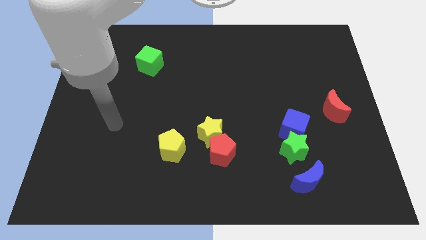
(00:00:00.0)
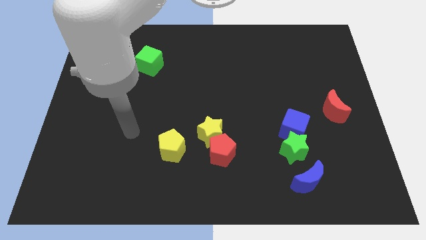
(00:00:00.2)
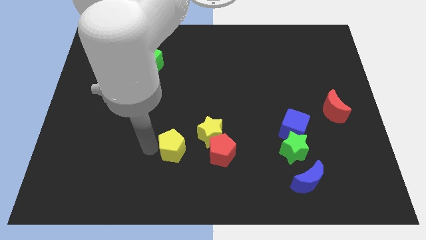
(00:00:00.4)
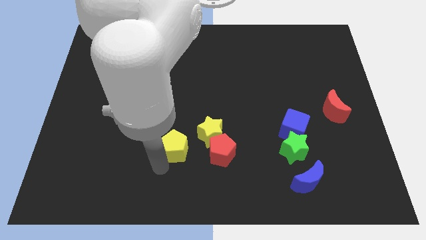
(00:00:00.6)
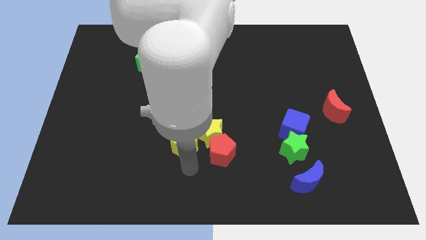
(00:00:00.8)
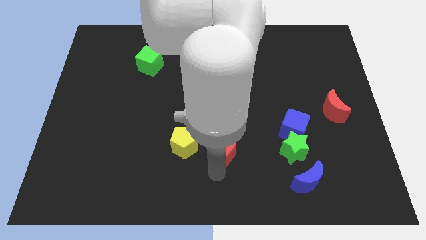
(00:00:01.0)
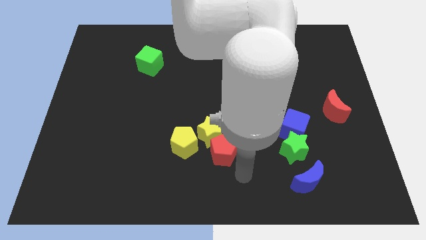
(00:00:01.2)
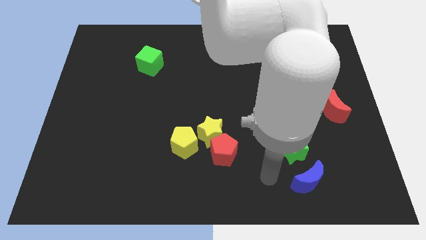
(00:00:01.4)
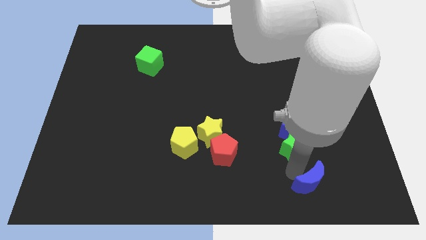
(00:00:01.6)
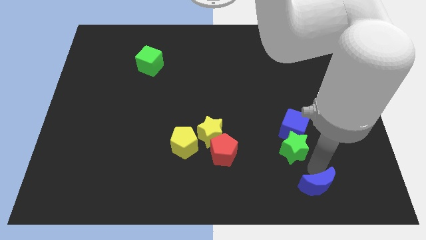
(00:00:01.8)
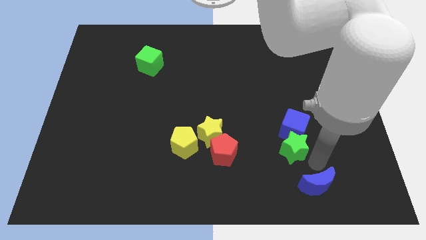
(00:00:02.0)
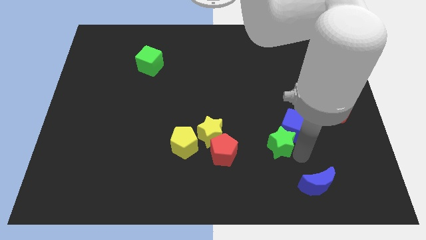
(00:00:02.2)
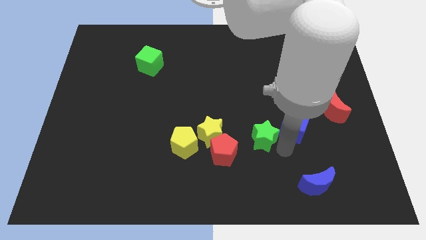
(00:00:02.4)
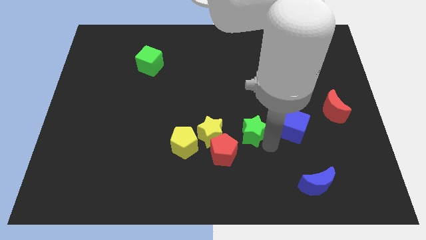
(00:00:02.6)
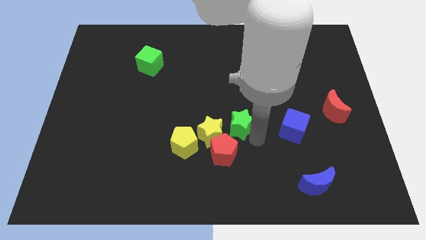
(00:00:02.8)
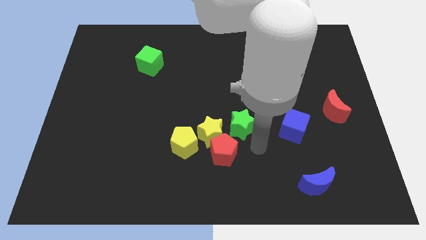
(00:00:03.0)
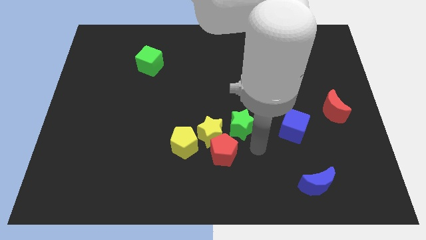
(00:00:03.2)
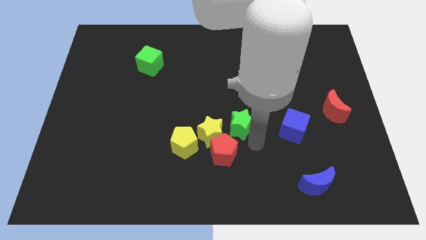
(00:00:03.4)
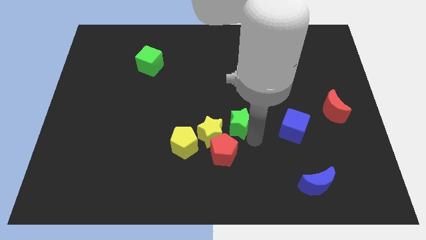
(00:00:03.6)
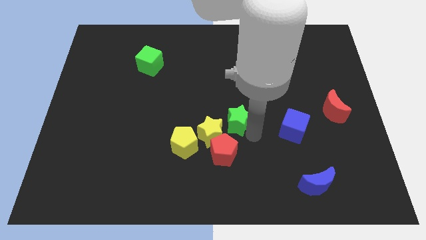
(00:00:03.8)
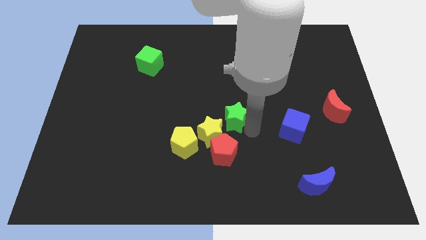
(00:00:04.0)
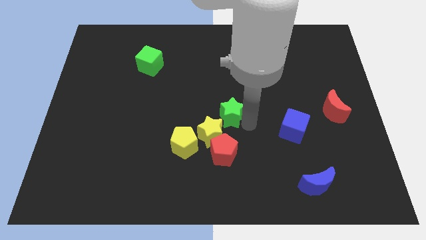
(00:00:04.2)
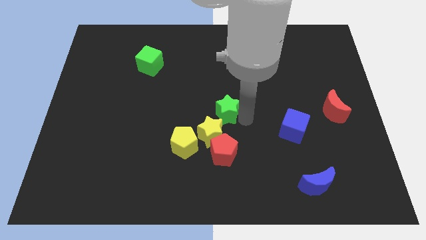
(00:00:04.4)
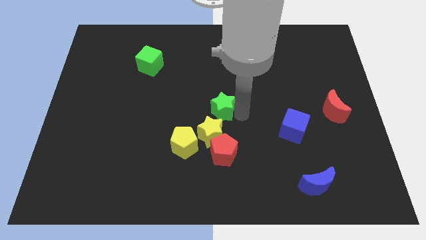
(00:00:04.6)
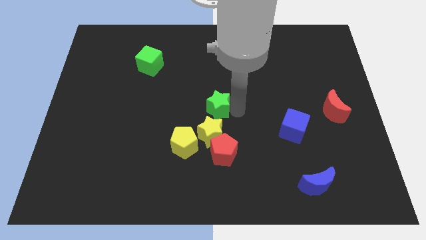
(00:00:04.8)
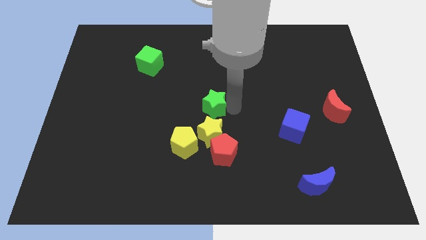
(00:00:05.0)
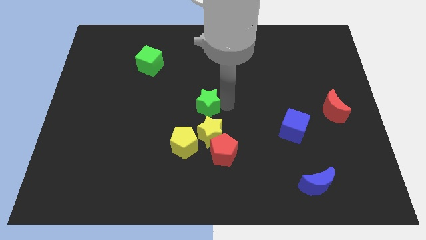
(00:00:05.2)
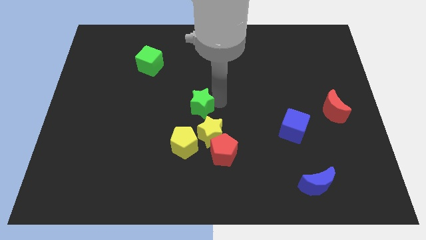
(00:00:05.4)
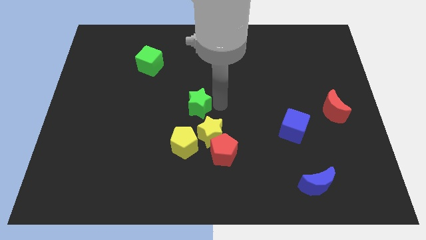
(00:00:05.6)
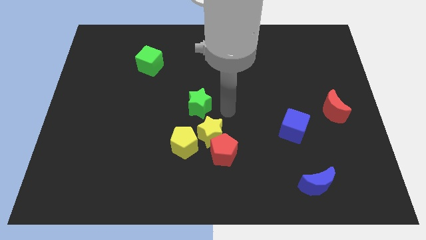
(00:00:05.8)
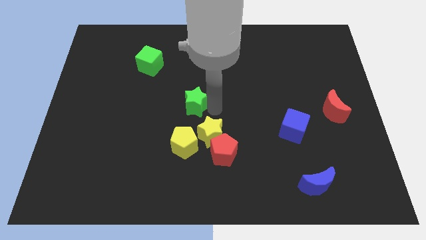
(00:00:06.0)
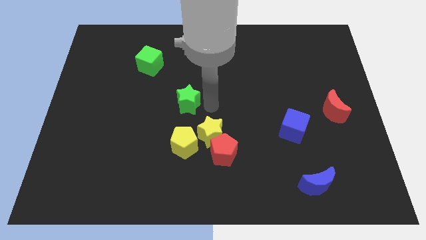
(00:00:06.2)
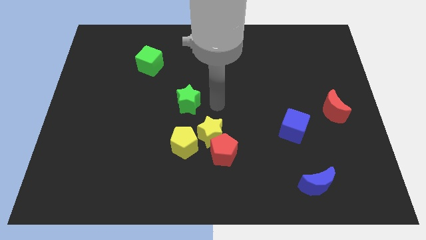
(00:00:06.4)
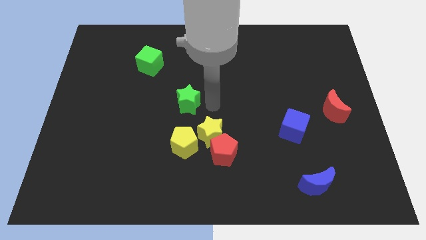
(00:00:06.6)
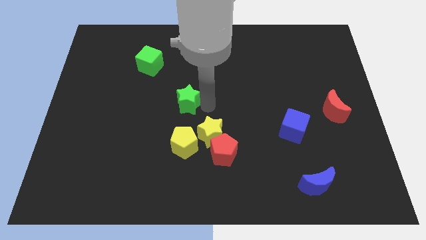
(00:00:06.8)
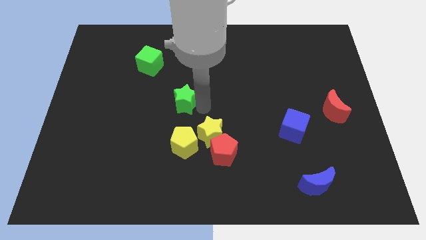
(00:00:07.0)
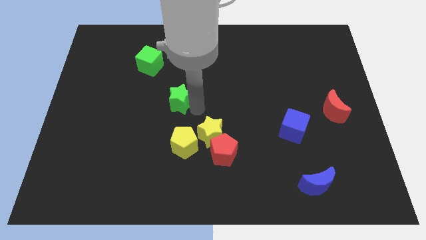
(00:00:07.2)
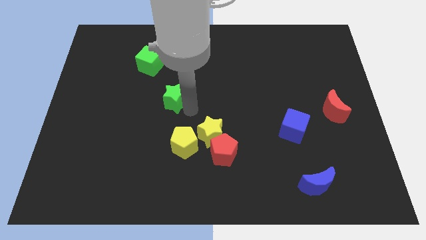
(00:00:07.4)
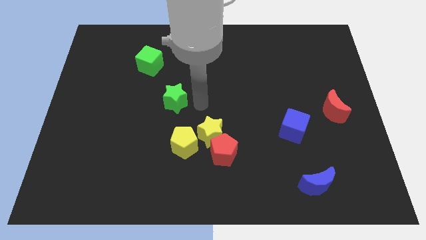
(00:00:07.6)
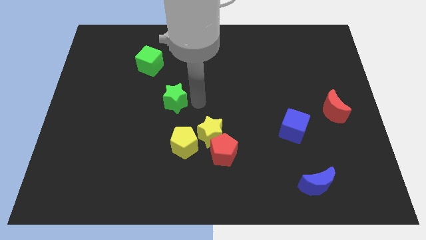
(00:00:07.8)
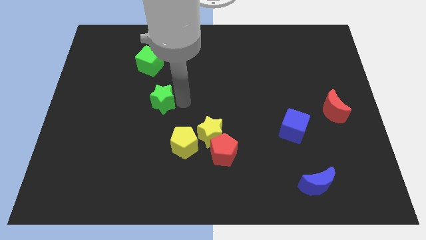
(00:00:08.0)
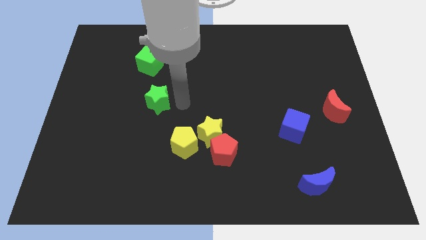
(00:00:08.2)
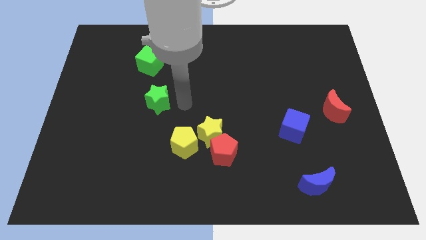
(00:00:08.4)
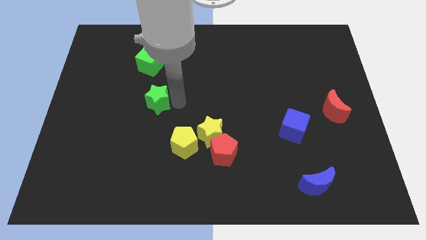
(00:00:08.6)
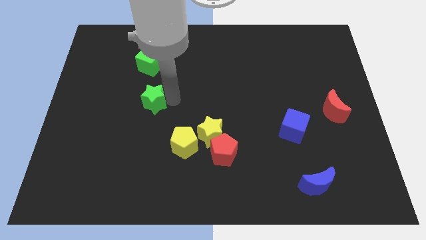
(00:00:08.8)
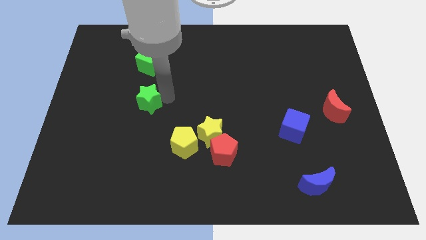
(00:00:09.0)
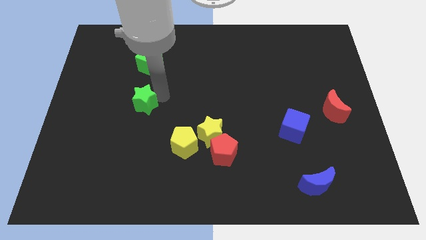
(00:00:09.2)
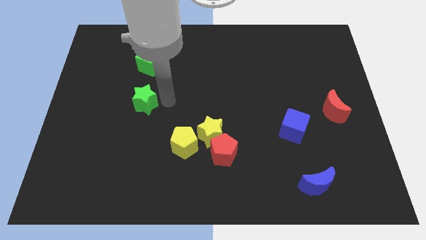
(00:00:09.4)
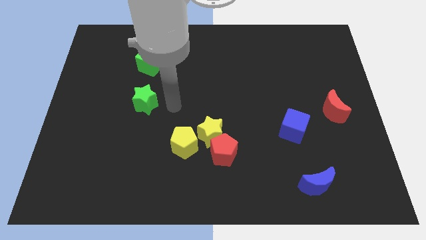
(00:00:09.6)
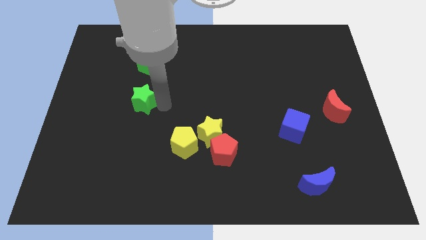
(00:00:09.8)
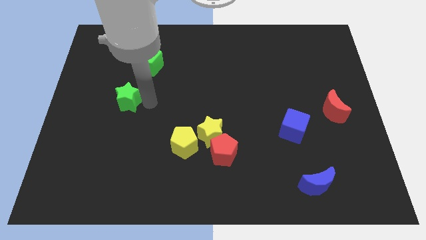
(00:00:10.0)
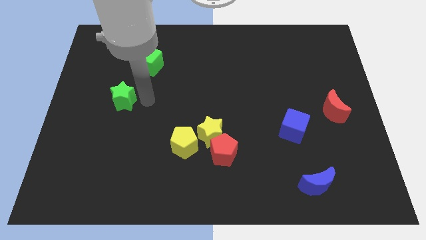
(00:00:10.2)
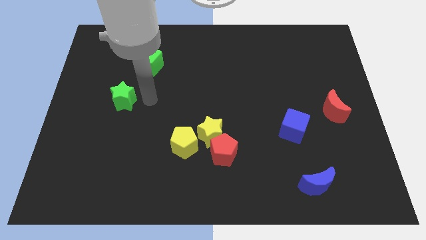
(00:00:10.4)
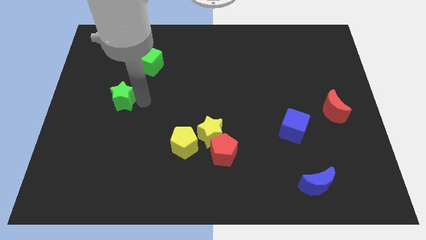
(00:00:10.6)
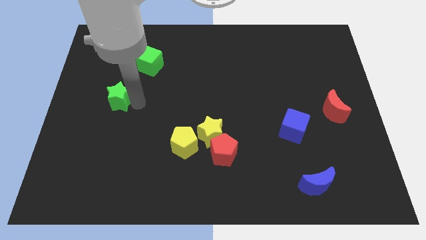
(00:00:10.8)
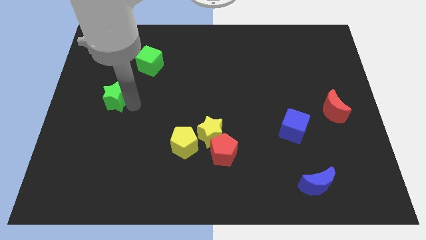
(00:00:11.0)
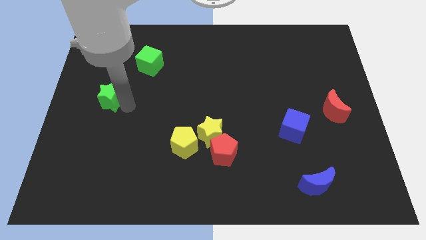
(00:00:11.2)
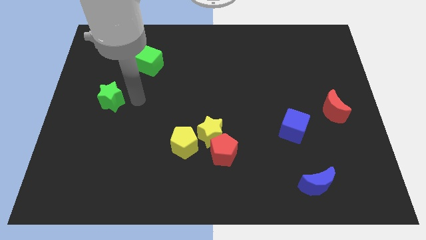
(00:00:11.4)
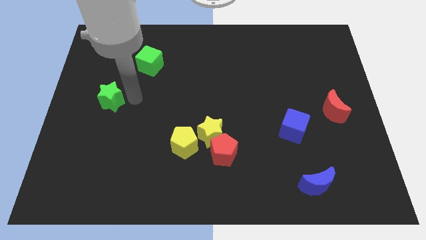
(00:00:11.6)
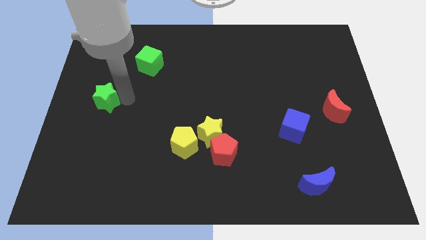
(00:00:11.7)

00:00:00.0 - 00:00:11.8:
slide the green star to the center left

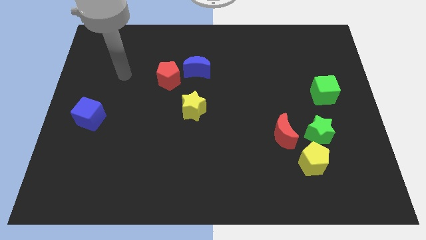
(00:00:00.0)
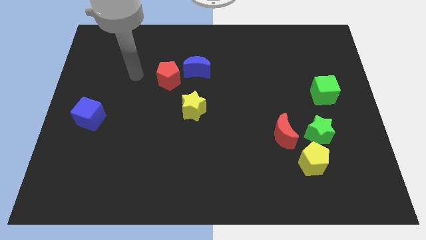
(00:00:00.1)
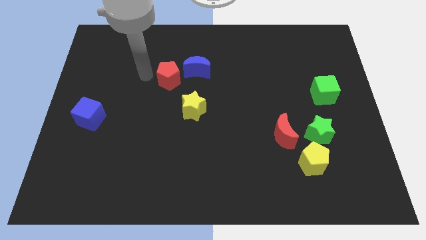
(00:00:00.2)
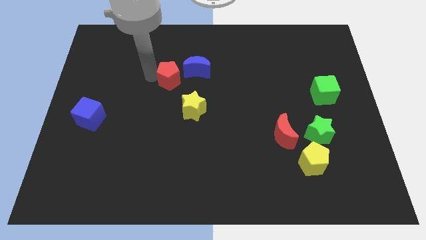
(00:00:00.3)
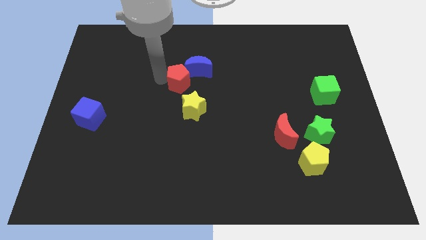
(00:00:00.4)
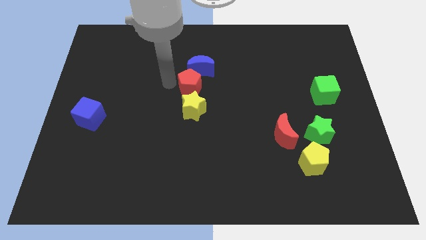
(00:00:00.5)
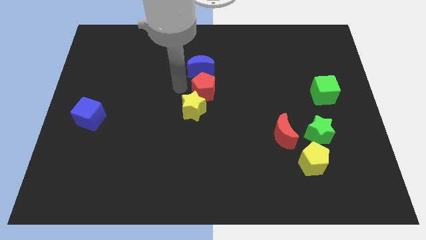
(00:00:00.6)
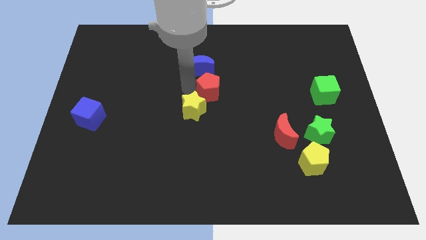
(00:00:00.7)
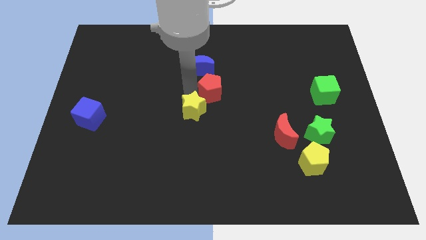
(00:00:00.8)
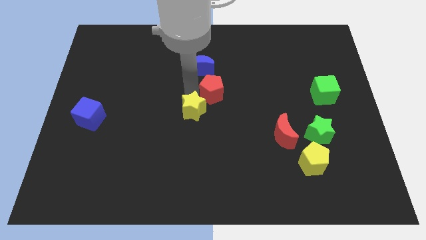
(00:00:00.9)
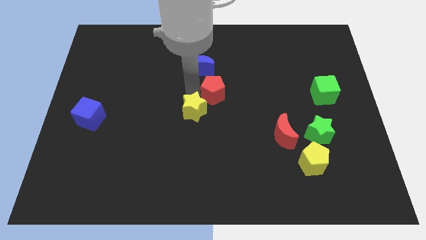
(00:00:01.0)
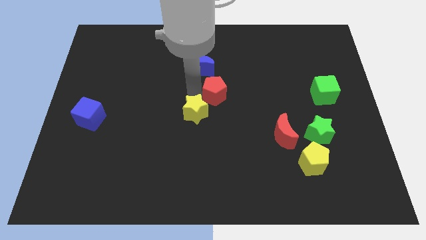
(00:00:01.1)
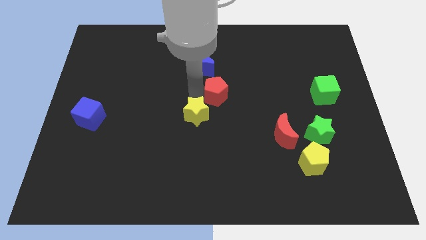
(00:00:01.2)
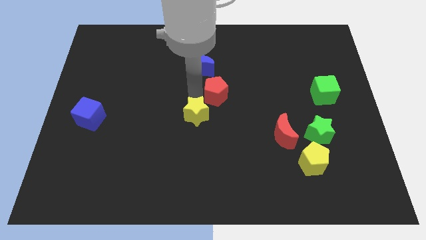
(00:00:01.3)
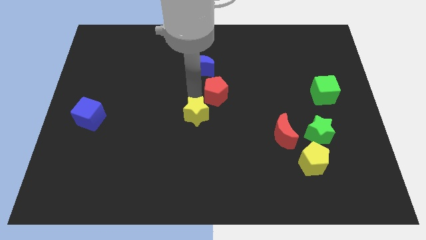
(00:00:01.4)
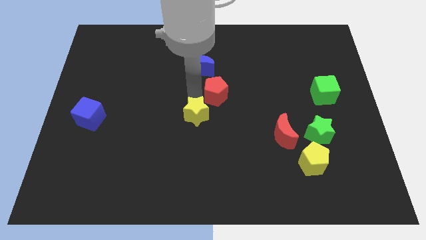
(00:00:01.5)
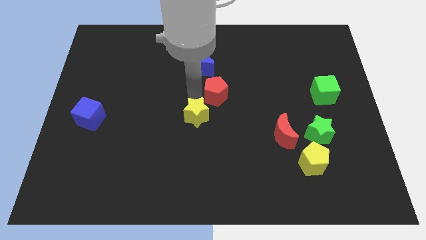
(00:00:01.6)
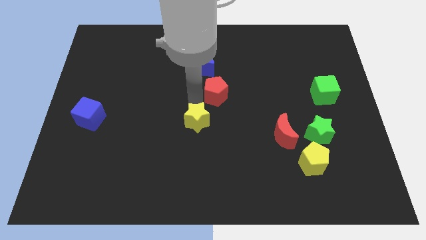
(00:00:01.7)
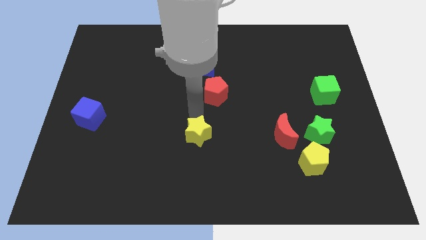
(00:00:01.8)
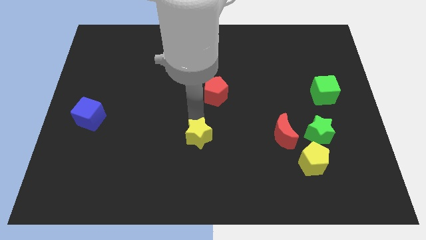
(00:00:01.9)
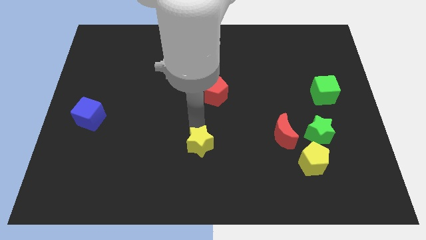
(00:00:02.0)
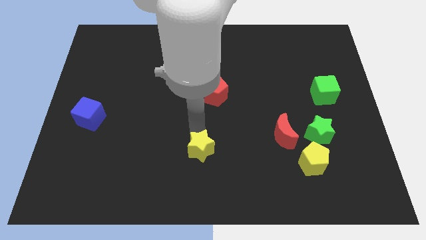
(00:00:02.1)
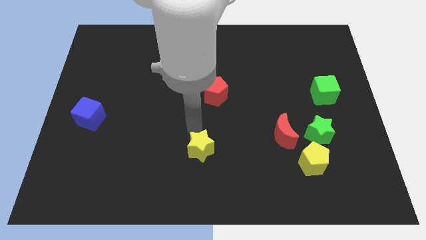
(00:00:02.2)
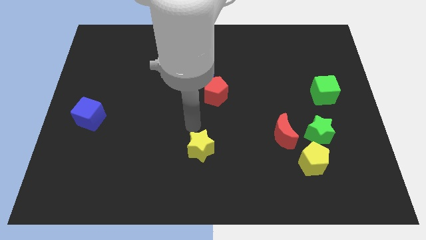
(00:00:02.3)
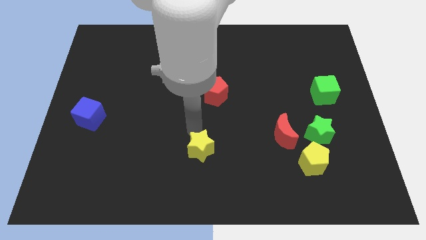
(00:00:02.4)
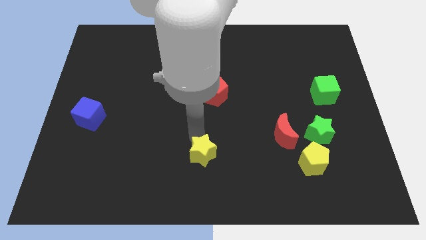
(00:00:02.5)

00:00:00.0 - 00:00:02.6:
slide the yellow star to the bottom side
